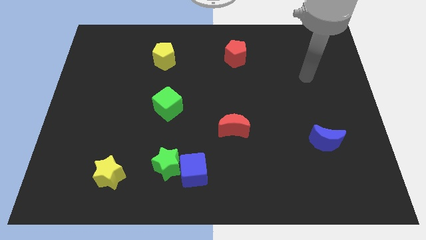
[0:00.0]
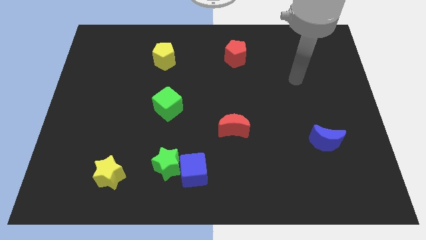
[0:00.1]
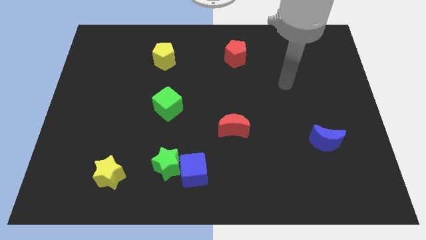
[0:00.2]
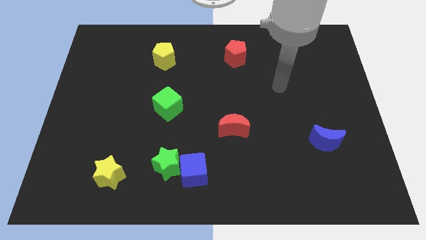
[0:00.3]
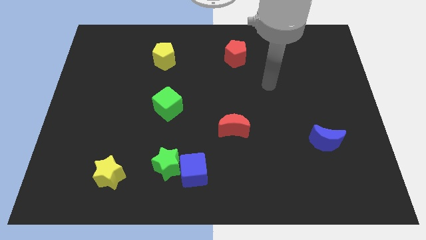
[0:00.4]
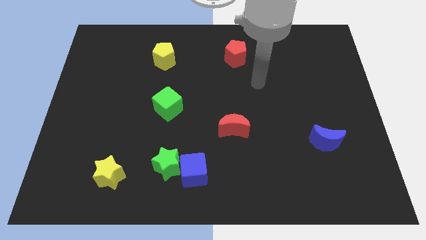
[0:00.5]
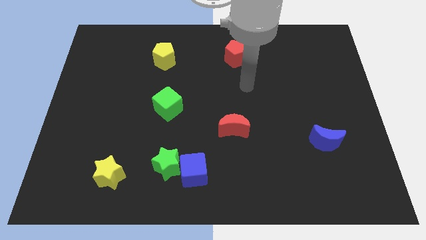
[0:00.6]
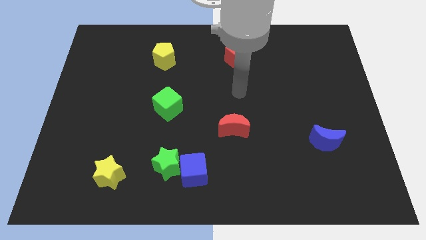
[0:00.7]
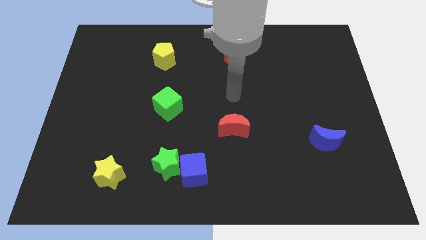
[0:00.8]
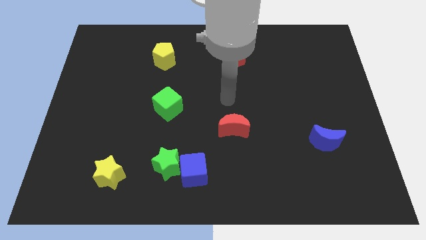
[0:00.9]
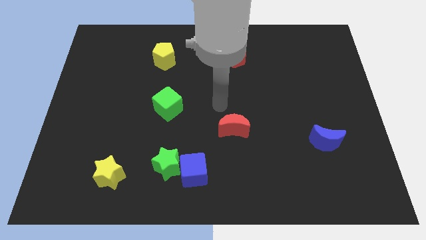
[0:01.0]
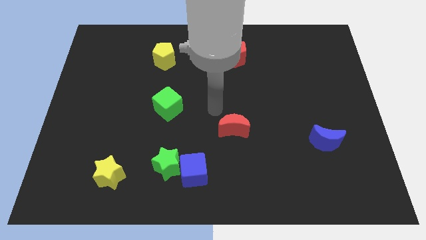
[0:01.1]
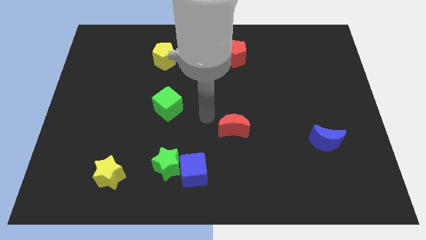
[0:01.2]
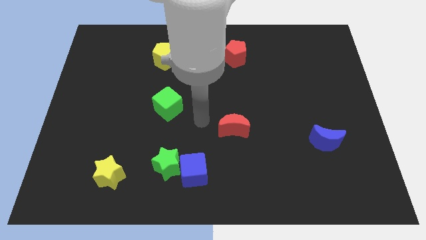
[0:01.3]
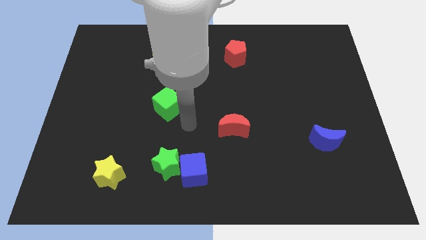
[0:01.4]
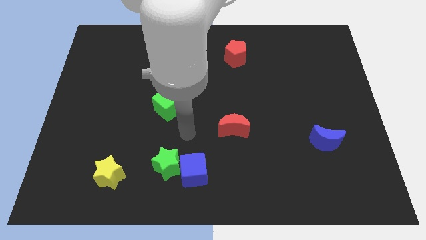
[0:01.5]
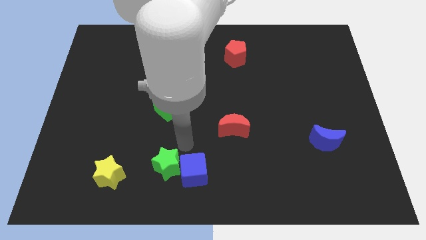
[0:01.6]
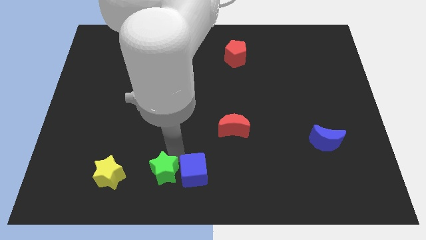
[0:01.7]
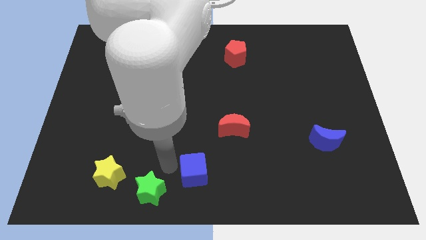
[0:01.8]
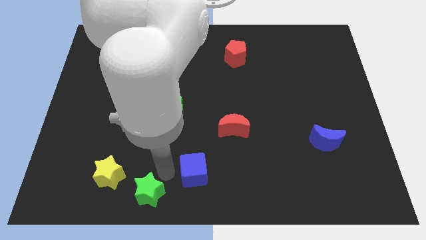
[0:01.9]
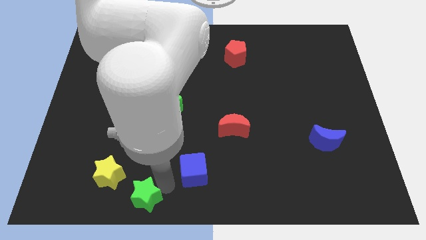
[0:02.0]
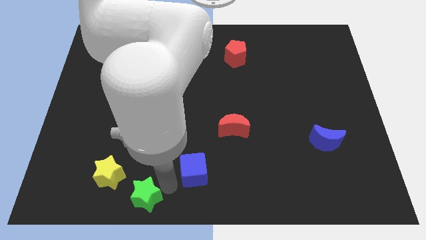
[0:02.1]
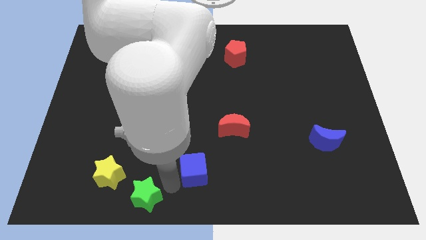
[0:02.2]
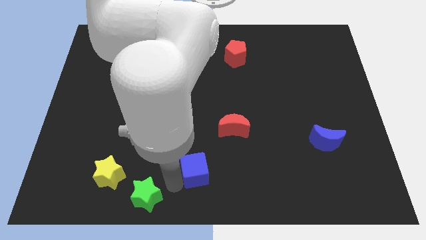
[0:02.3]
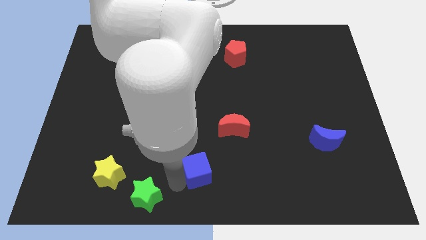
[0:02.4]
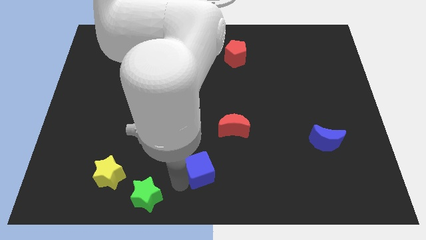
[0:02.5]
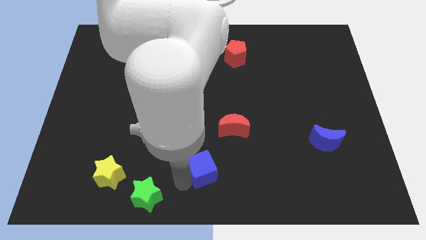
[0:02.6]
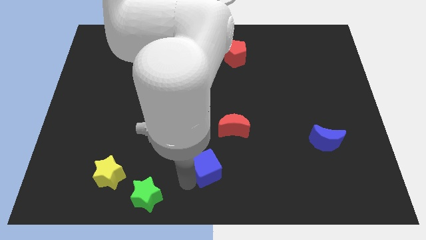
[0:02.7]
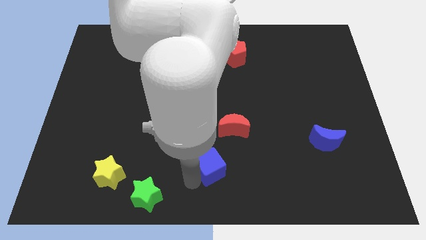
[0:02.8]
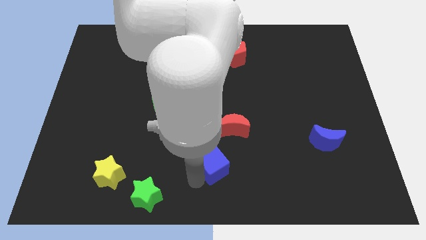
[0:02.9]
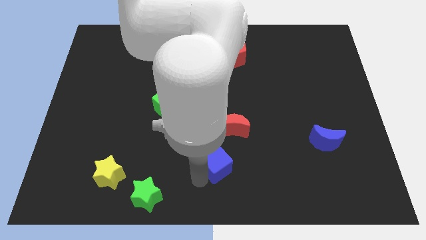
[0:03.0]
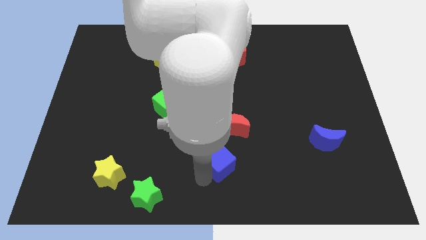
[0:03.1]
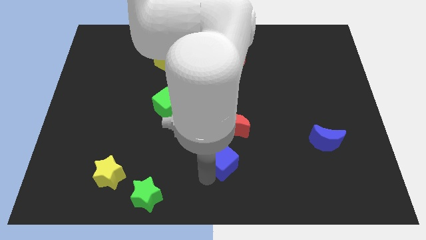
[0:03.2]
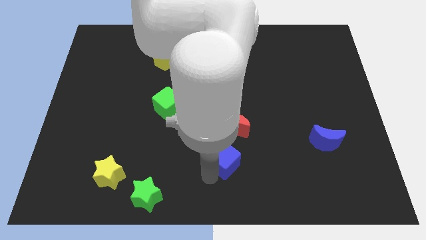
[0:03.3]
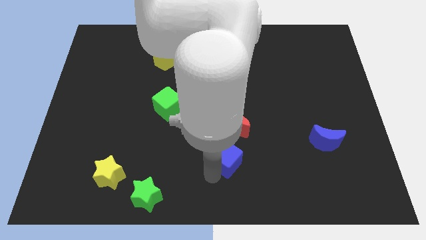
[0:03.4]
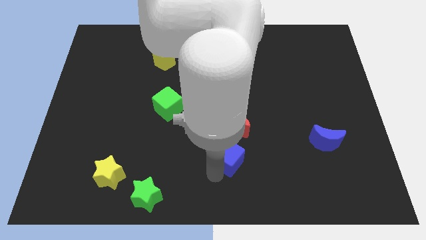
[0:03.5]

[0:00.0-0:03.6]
slide the blue cube diagonally upwards and right slightly

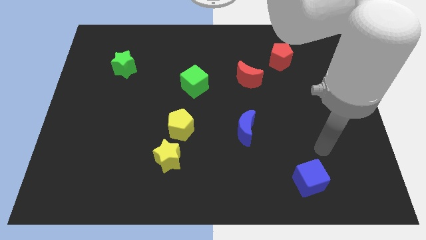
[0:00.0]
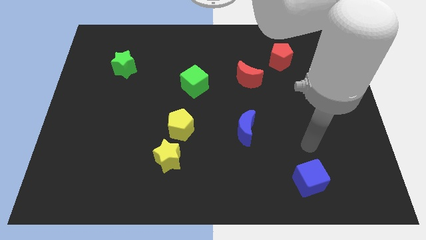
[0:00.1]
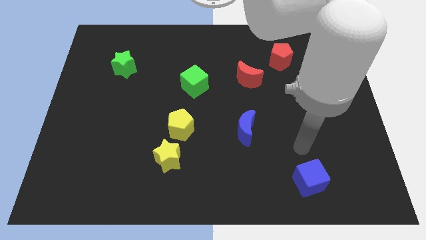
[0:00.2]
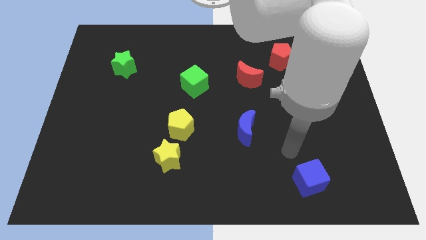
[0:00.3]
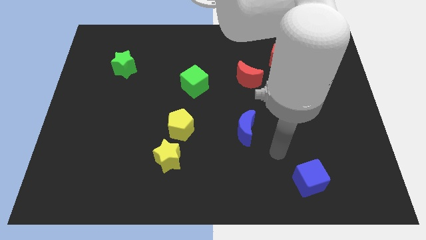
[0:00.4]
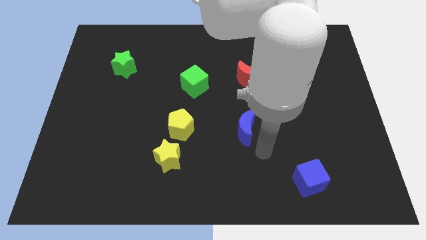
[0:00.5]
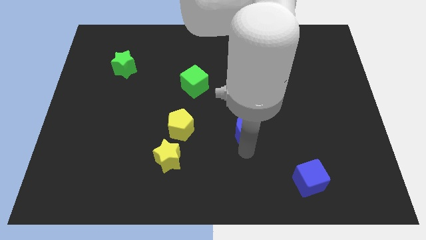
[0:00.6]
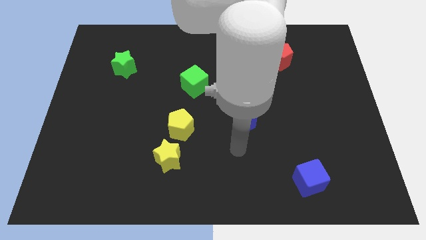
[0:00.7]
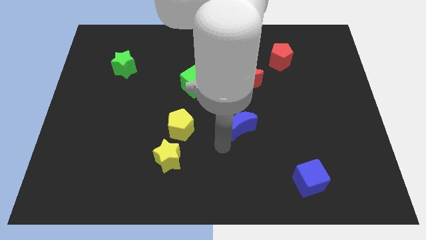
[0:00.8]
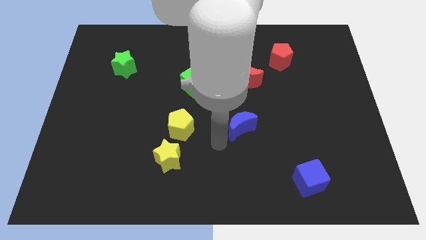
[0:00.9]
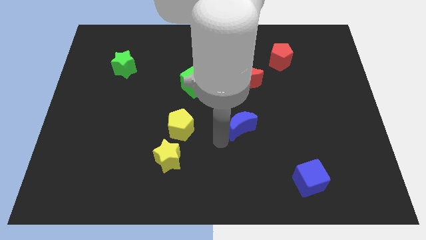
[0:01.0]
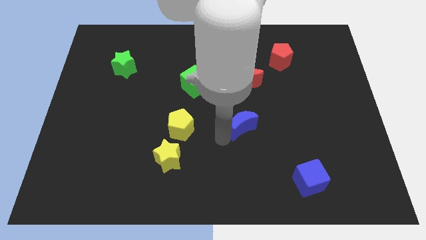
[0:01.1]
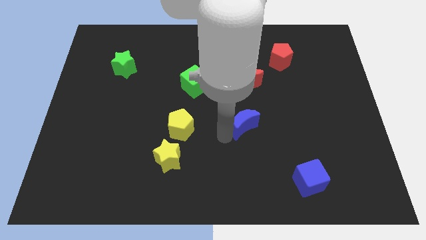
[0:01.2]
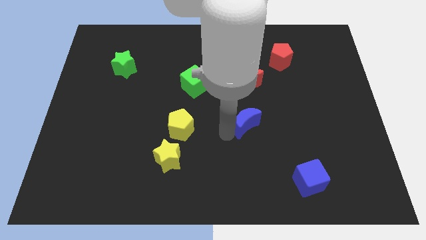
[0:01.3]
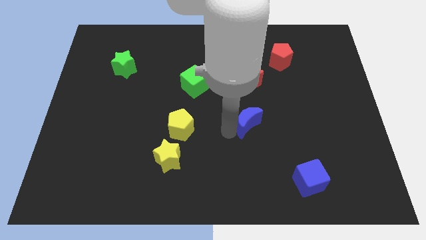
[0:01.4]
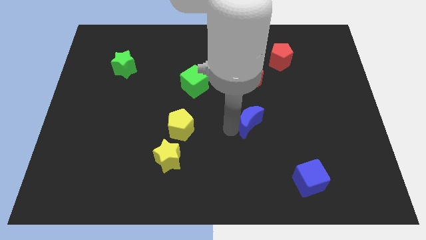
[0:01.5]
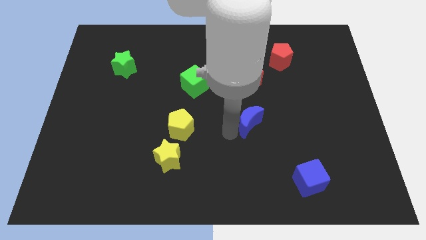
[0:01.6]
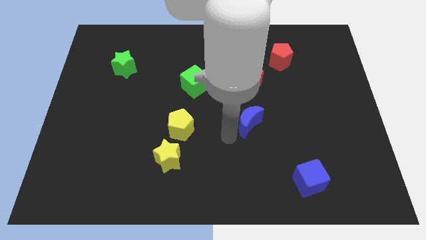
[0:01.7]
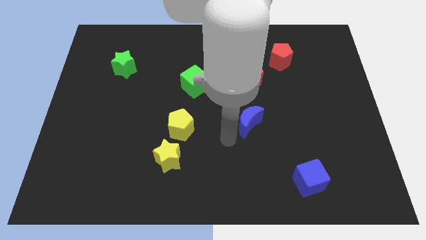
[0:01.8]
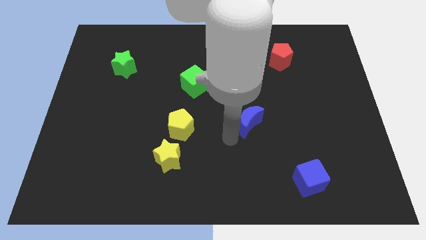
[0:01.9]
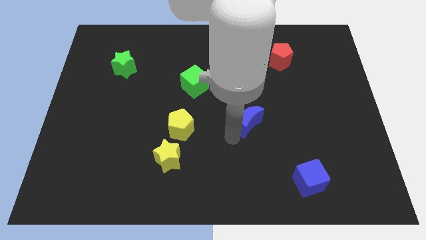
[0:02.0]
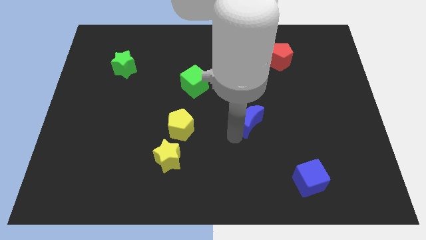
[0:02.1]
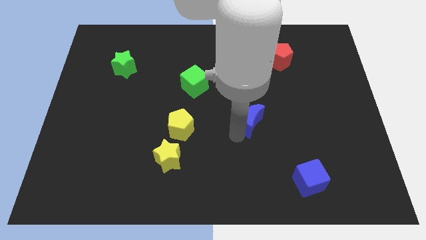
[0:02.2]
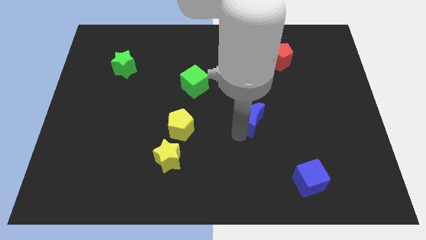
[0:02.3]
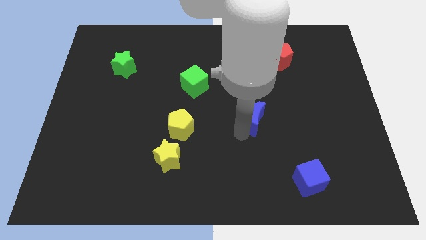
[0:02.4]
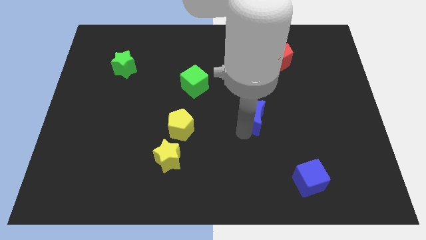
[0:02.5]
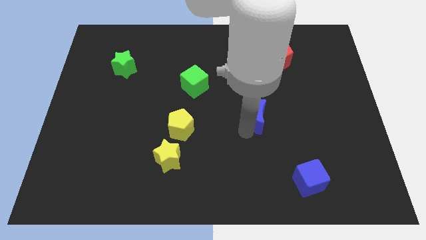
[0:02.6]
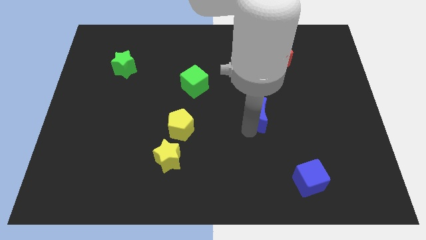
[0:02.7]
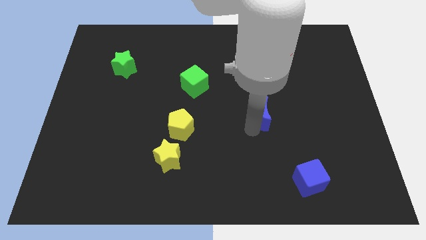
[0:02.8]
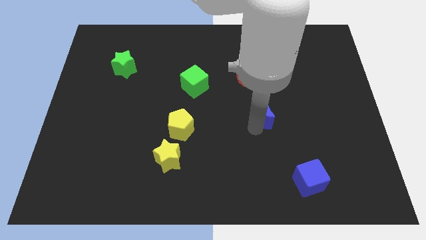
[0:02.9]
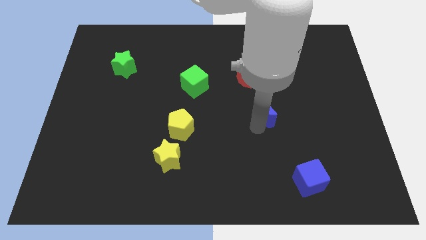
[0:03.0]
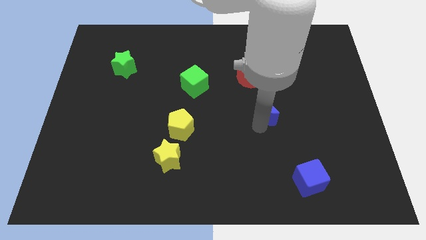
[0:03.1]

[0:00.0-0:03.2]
slide the blue moon somewhat upwards and then right

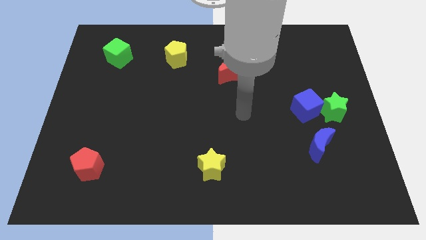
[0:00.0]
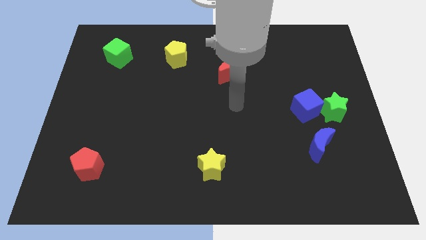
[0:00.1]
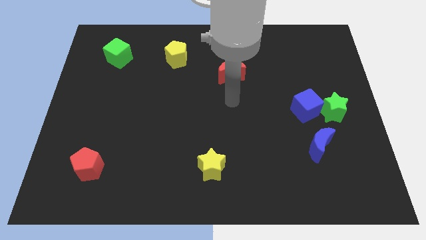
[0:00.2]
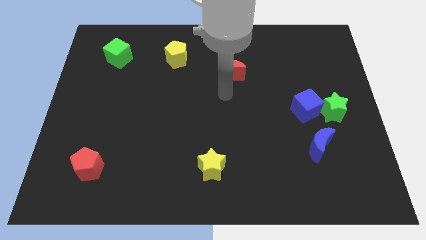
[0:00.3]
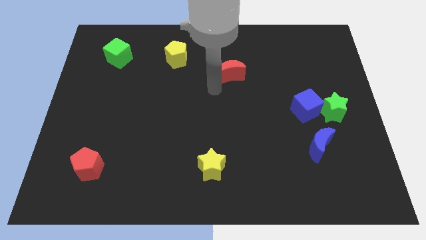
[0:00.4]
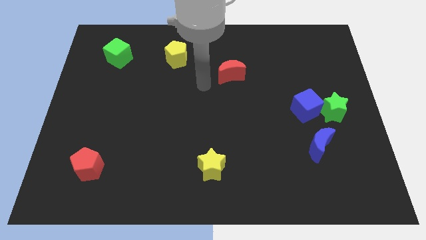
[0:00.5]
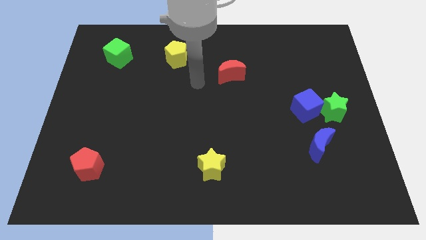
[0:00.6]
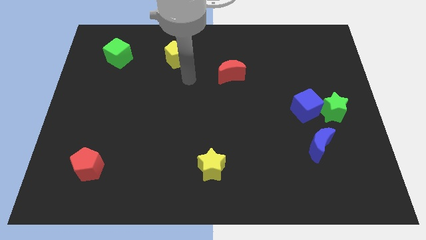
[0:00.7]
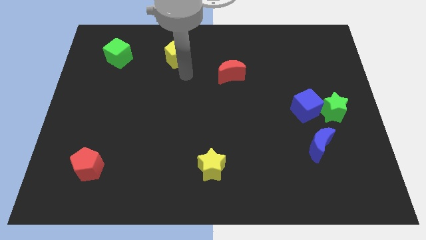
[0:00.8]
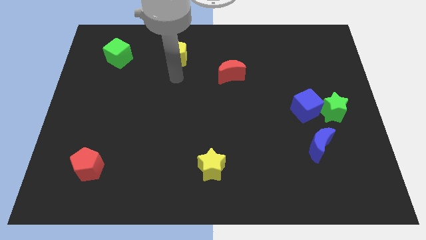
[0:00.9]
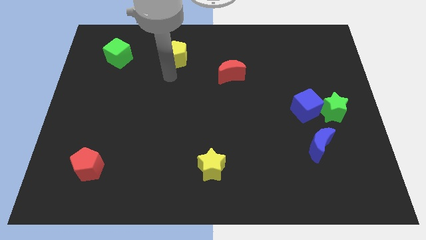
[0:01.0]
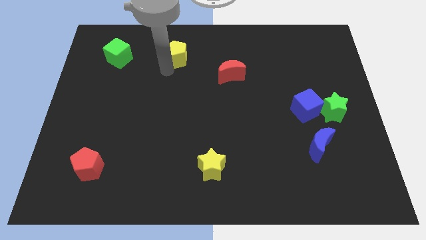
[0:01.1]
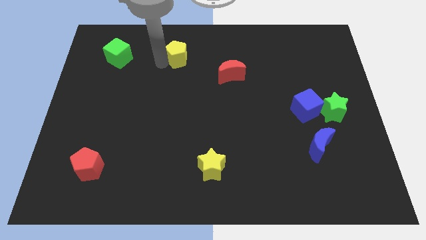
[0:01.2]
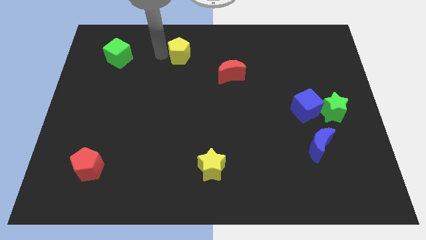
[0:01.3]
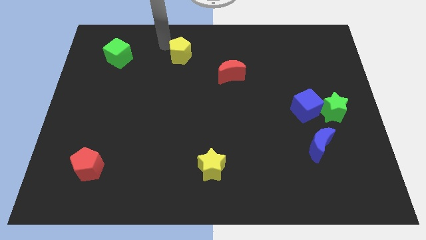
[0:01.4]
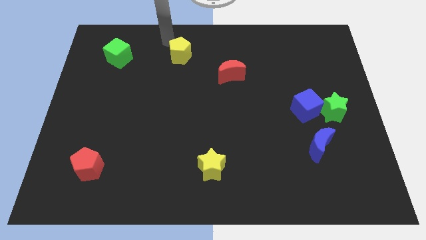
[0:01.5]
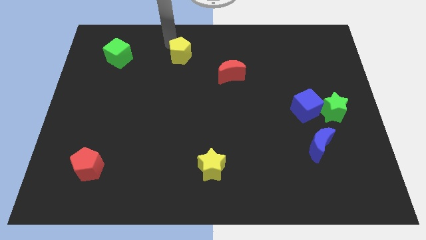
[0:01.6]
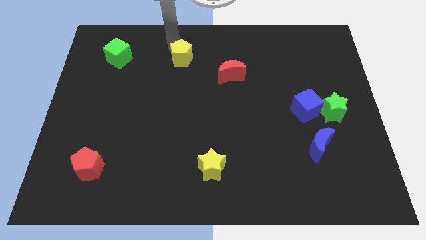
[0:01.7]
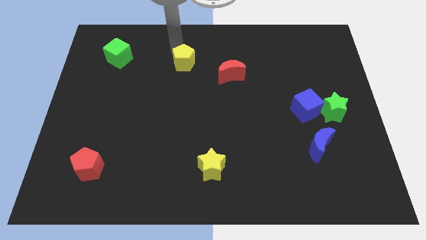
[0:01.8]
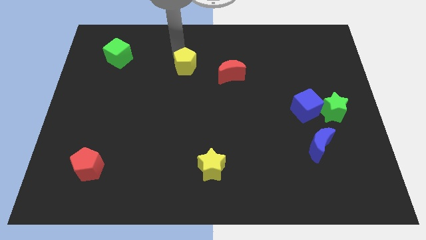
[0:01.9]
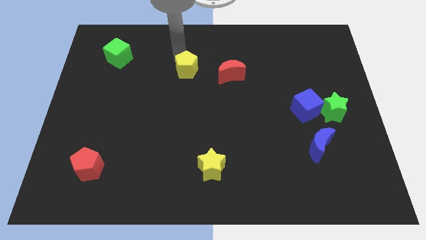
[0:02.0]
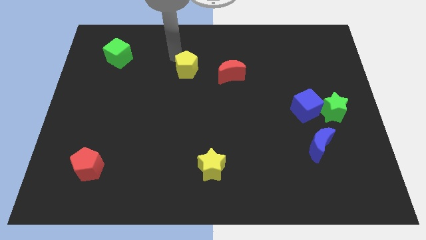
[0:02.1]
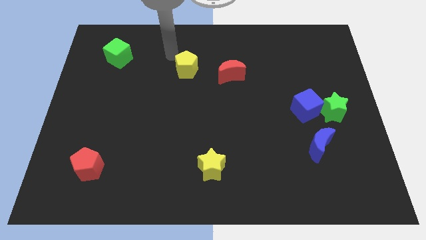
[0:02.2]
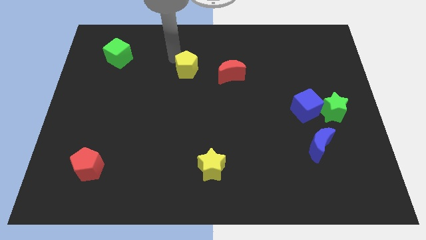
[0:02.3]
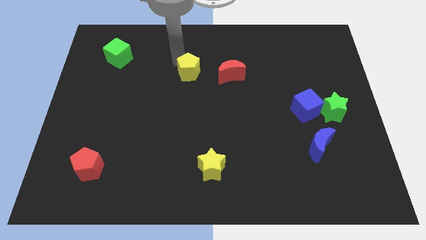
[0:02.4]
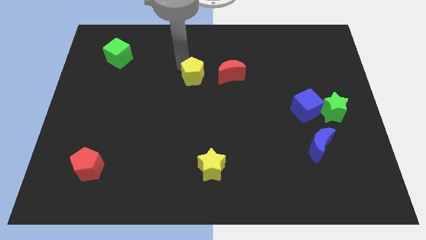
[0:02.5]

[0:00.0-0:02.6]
slide the yellow pentagon downwards and to the right a little
